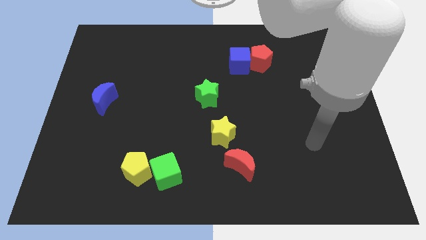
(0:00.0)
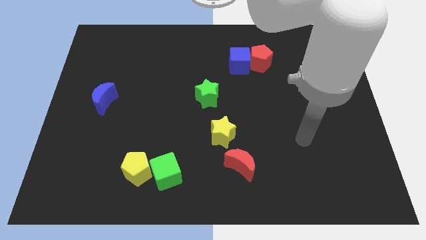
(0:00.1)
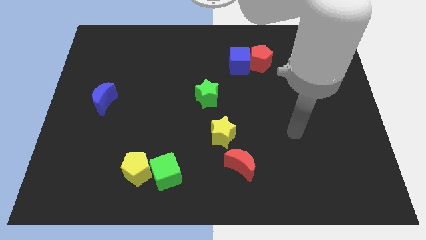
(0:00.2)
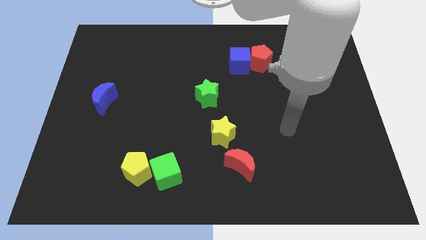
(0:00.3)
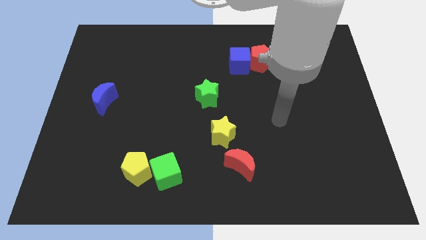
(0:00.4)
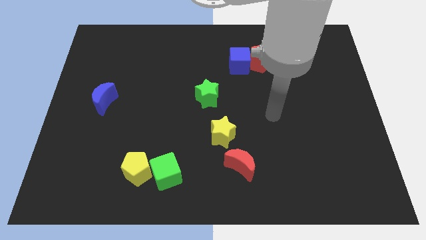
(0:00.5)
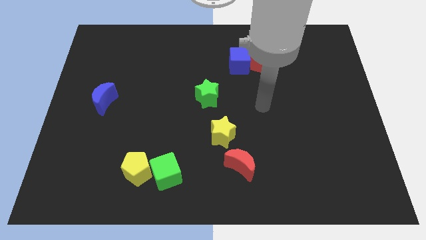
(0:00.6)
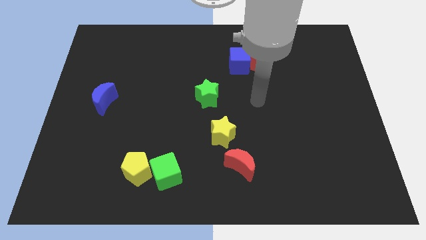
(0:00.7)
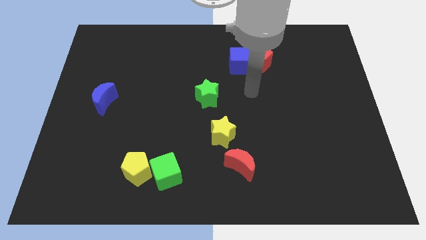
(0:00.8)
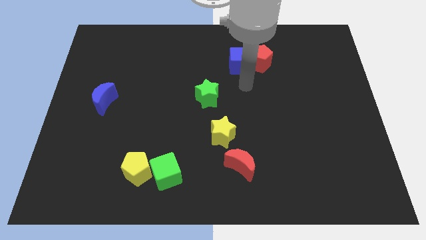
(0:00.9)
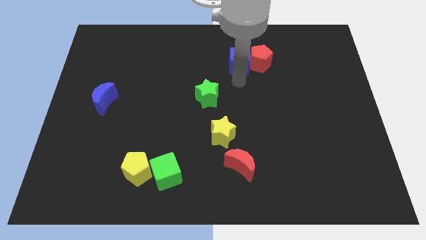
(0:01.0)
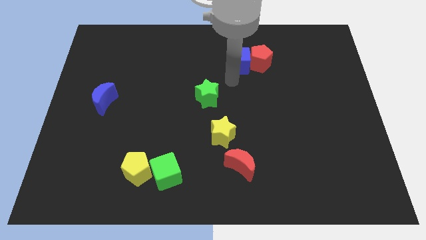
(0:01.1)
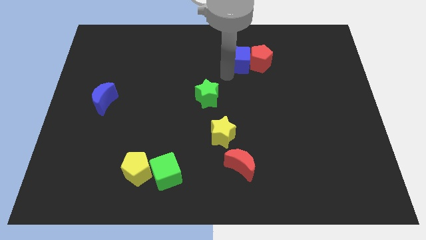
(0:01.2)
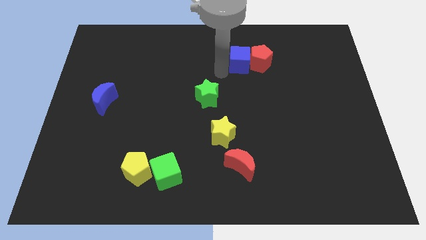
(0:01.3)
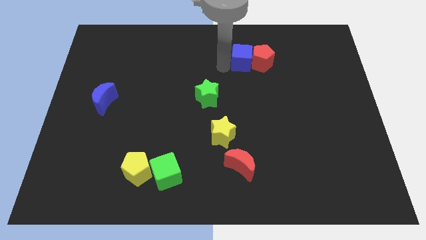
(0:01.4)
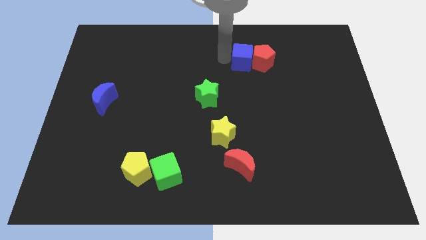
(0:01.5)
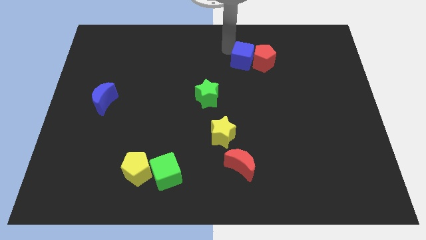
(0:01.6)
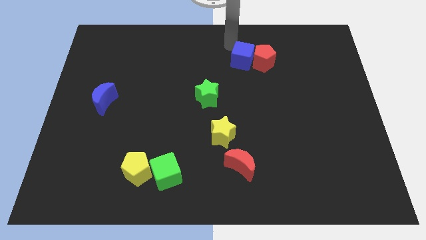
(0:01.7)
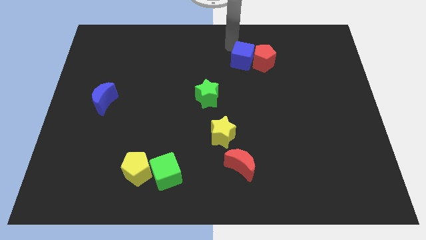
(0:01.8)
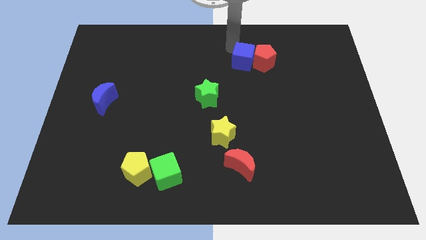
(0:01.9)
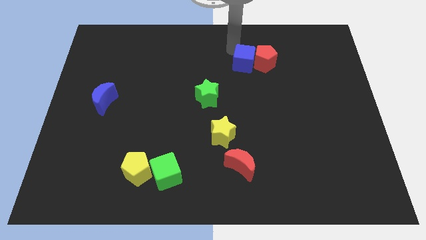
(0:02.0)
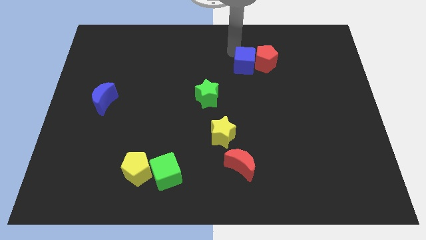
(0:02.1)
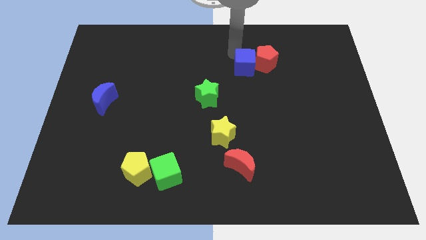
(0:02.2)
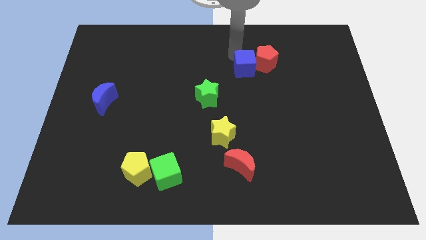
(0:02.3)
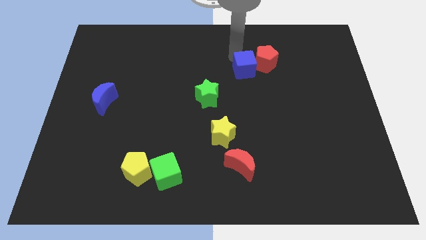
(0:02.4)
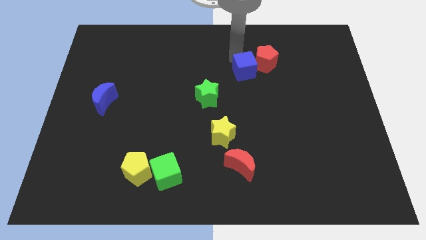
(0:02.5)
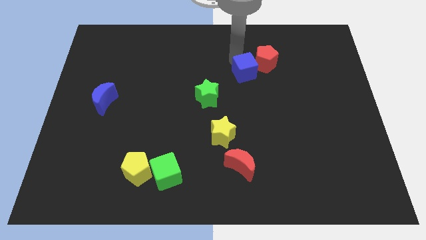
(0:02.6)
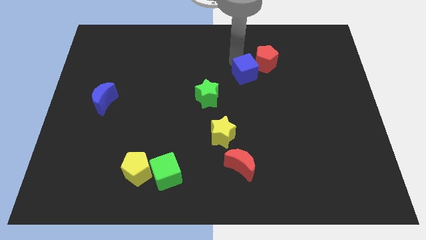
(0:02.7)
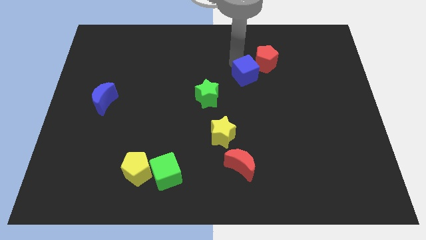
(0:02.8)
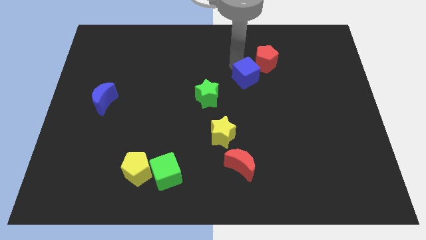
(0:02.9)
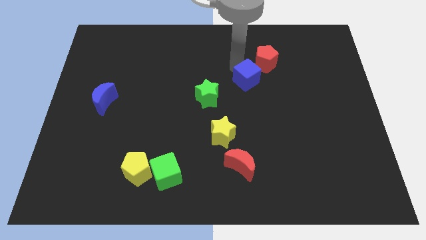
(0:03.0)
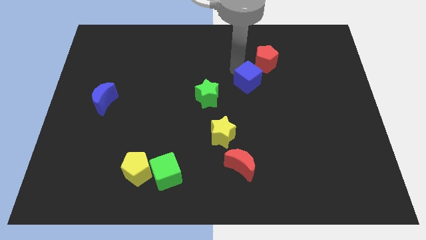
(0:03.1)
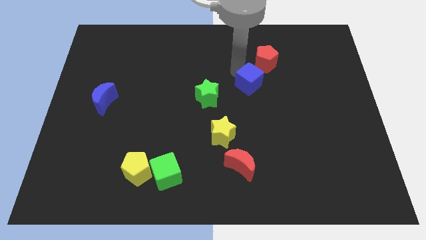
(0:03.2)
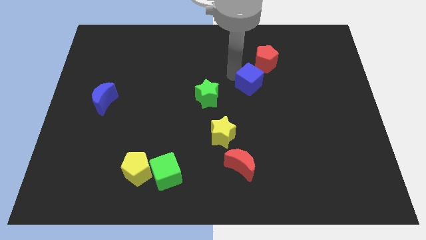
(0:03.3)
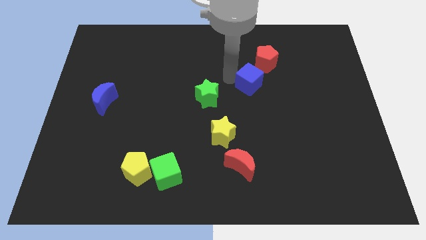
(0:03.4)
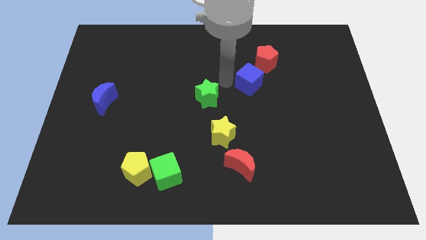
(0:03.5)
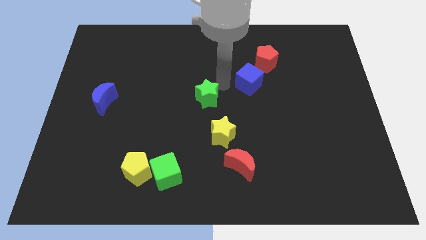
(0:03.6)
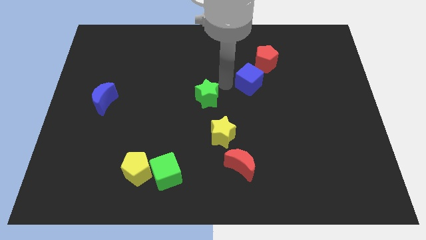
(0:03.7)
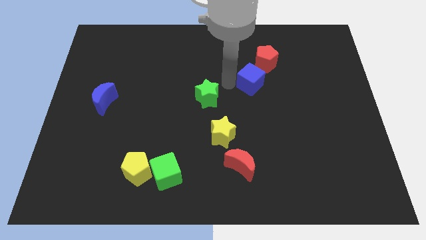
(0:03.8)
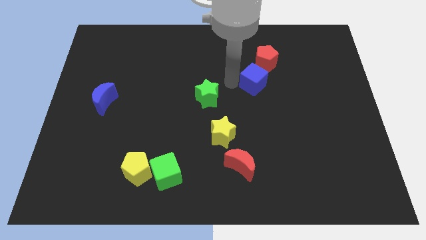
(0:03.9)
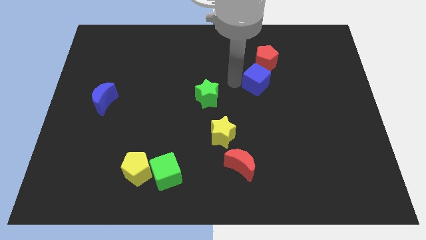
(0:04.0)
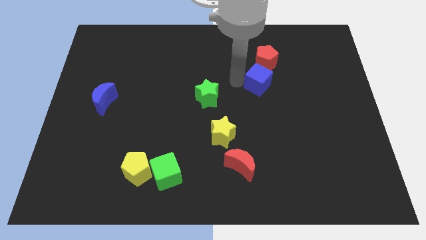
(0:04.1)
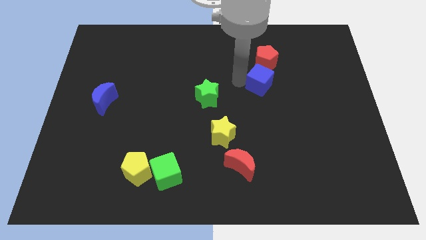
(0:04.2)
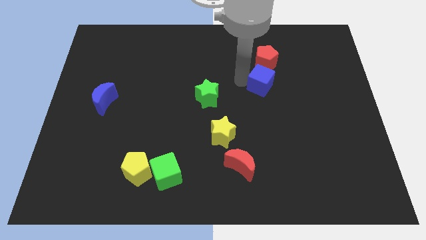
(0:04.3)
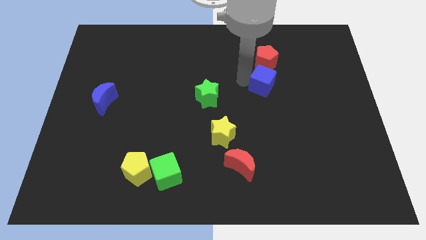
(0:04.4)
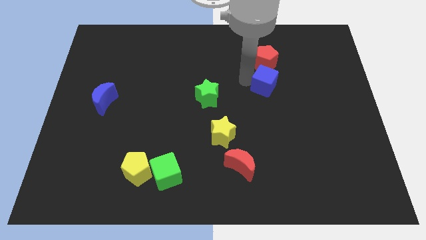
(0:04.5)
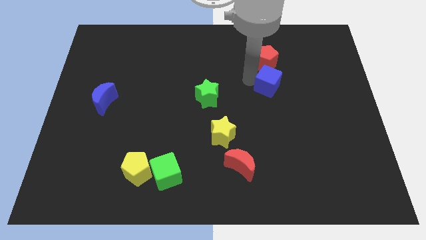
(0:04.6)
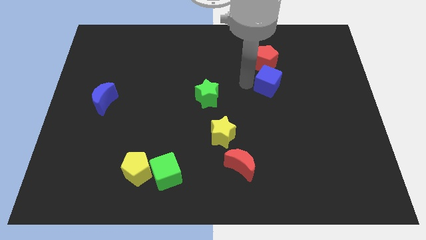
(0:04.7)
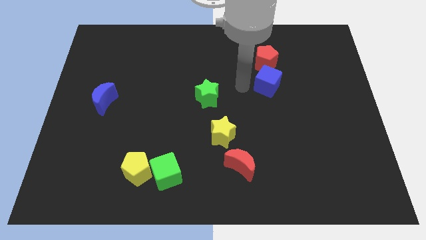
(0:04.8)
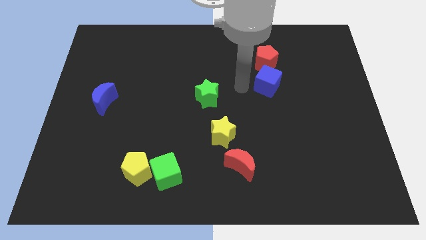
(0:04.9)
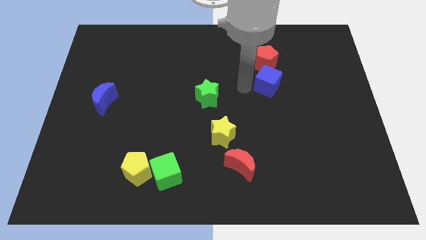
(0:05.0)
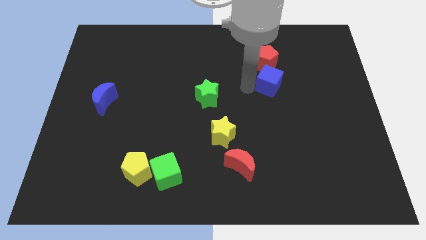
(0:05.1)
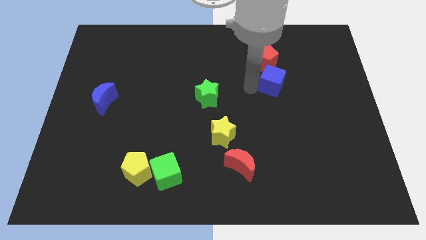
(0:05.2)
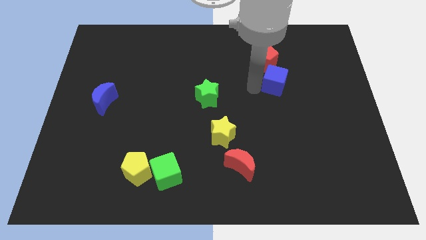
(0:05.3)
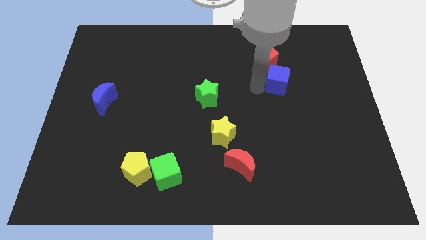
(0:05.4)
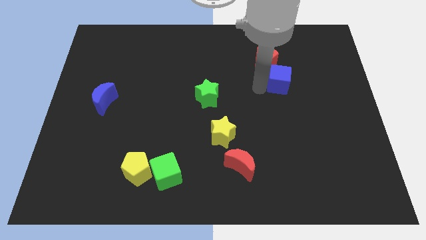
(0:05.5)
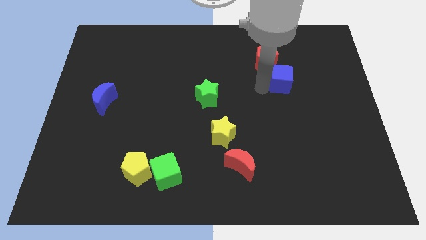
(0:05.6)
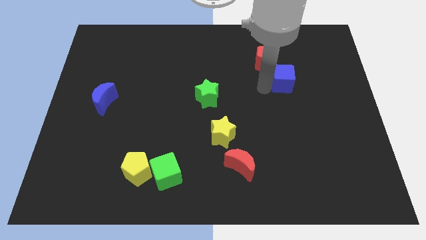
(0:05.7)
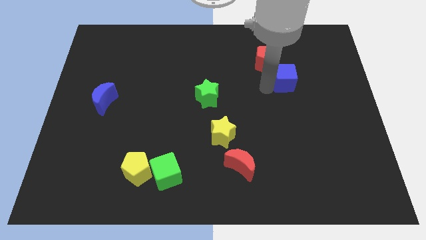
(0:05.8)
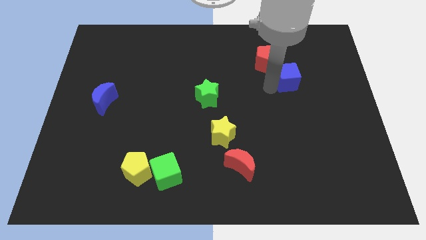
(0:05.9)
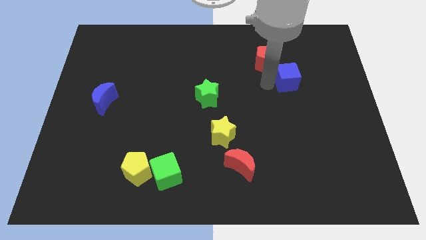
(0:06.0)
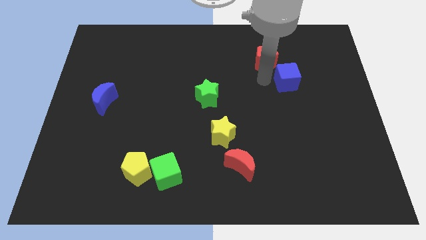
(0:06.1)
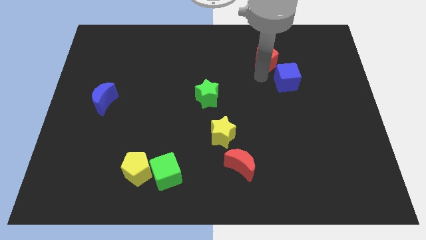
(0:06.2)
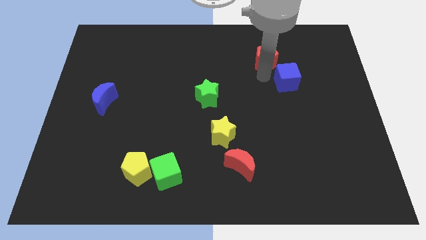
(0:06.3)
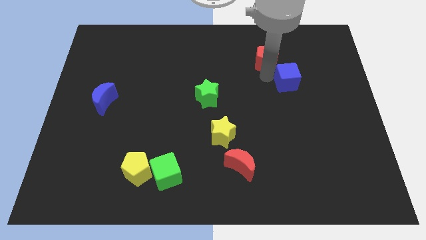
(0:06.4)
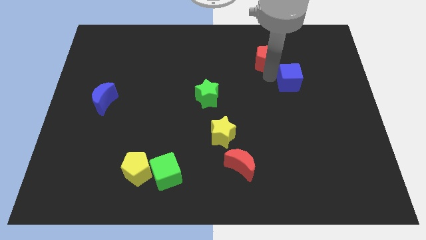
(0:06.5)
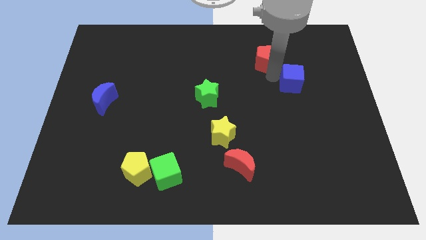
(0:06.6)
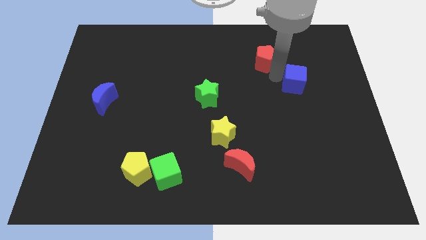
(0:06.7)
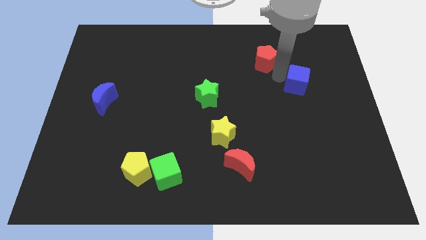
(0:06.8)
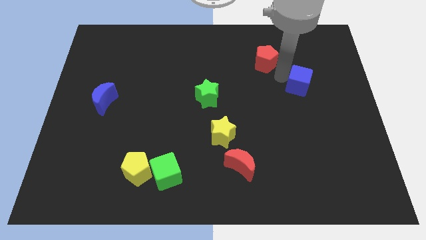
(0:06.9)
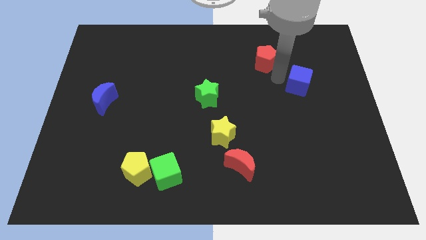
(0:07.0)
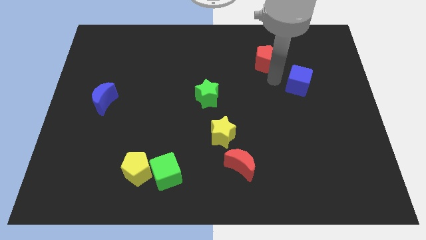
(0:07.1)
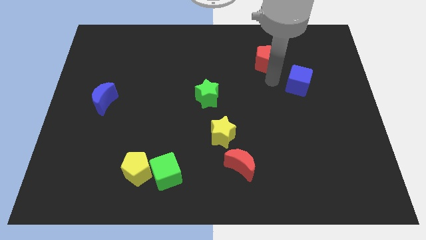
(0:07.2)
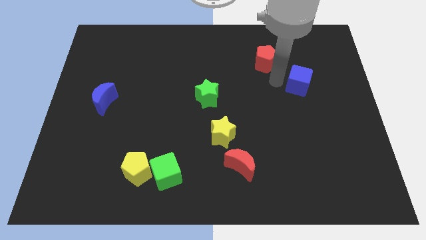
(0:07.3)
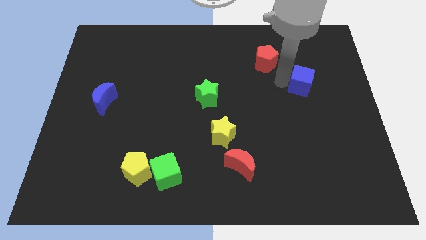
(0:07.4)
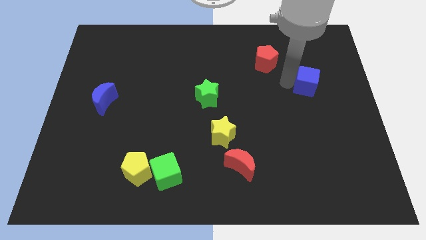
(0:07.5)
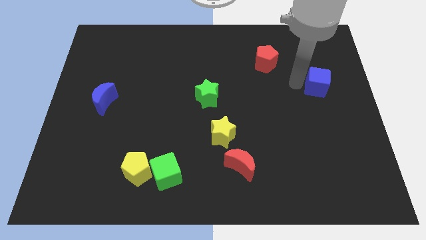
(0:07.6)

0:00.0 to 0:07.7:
push the blue cube to the center right
